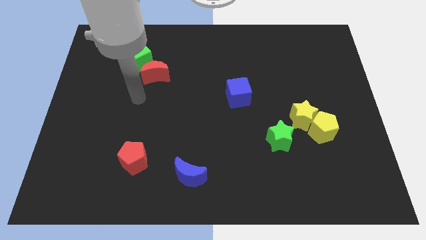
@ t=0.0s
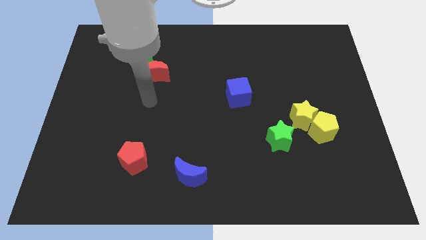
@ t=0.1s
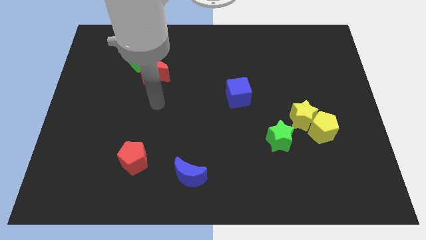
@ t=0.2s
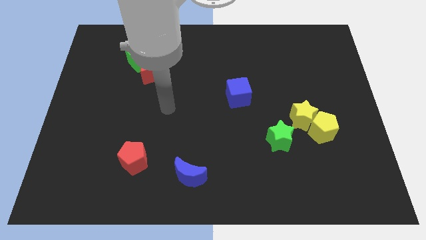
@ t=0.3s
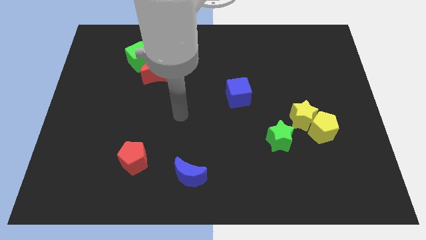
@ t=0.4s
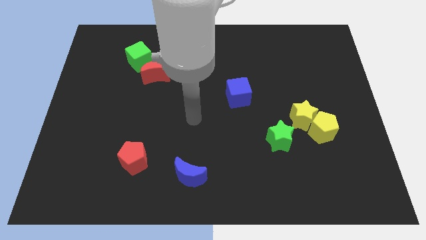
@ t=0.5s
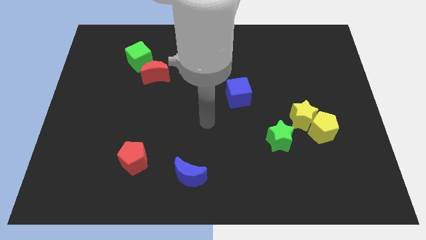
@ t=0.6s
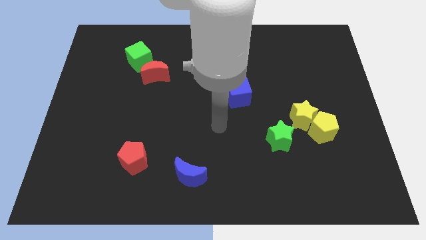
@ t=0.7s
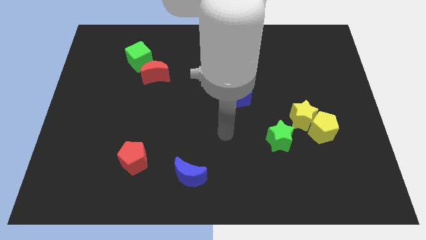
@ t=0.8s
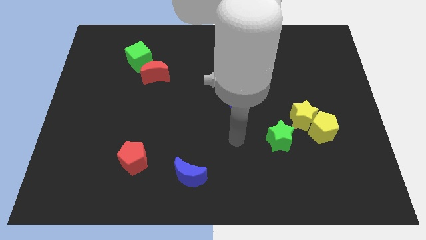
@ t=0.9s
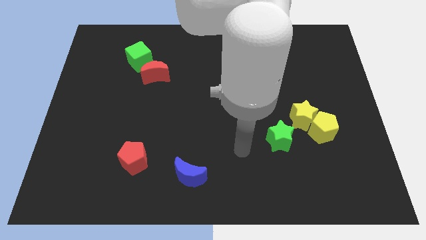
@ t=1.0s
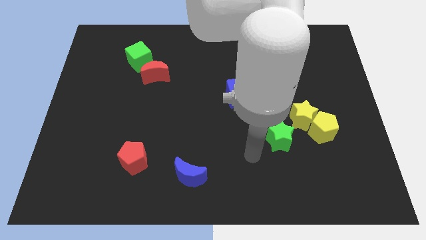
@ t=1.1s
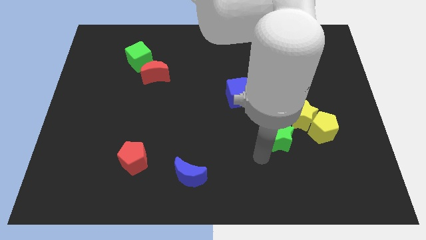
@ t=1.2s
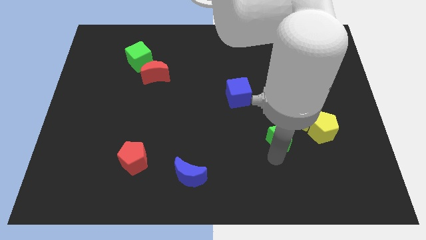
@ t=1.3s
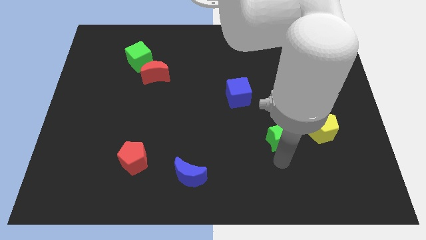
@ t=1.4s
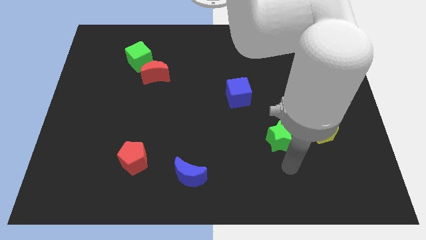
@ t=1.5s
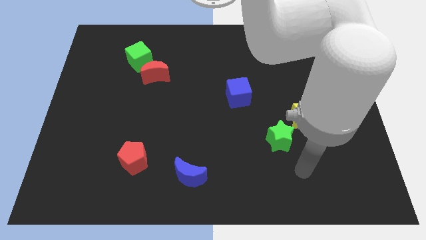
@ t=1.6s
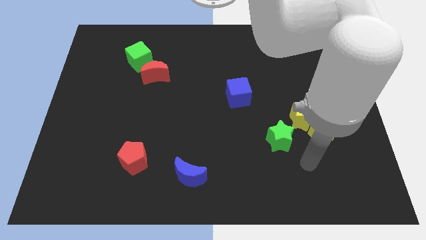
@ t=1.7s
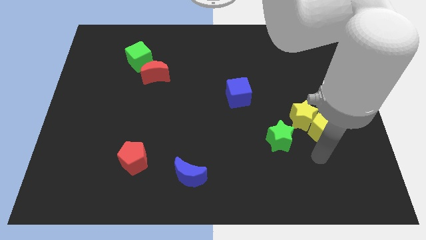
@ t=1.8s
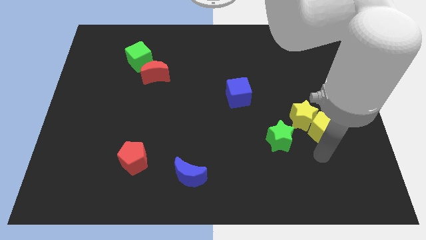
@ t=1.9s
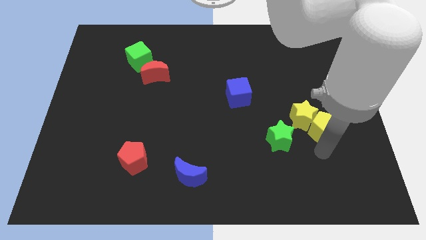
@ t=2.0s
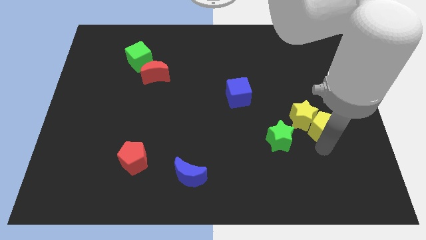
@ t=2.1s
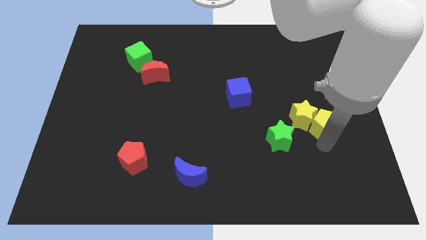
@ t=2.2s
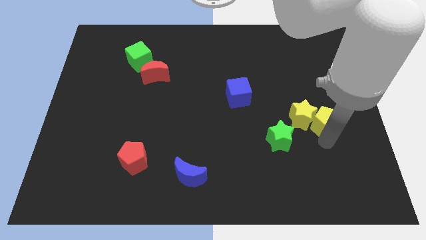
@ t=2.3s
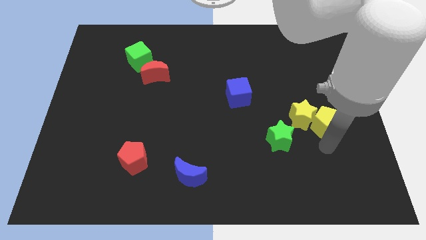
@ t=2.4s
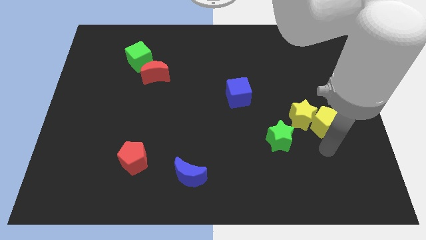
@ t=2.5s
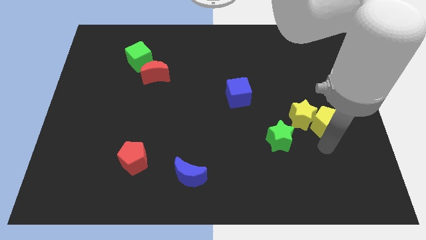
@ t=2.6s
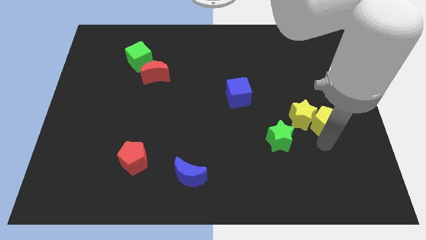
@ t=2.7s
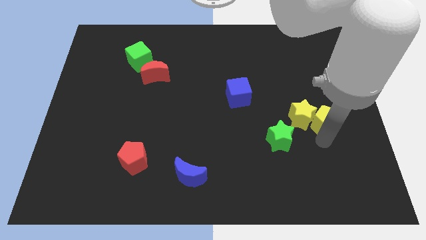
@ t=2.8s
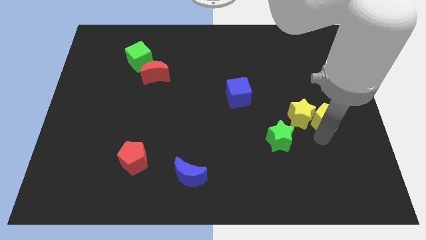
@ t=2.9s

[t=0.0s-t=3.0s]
put the yellow pentagon to the top right of the yellow star

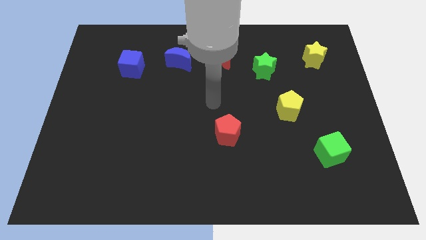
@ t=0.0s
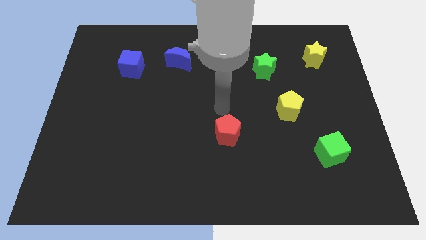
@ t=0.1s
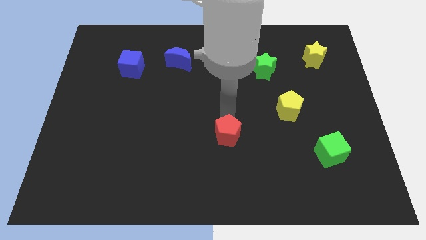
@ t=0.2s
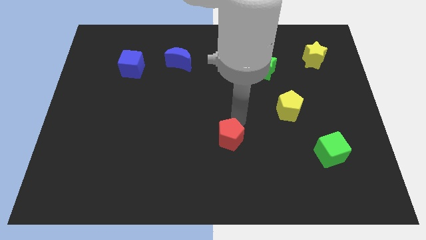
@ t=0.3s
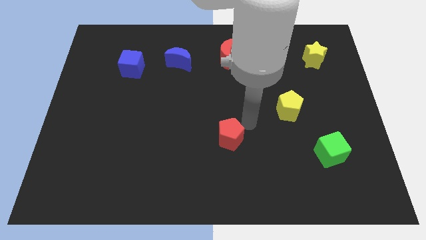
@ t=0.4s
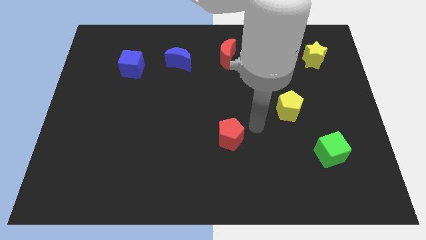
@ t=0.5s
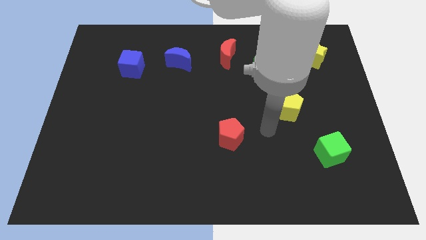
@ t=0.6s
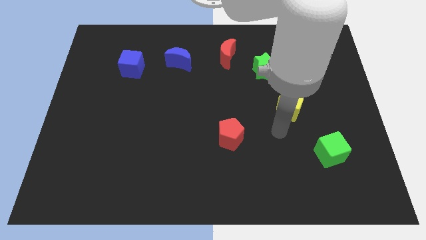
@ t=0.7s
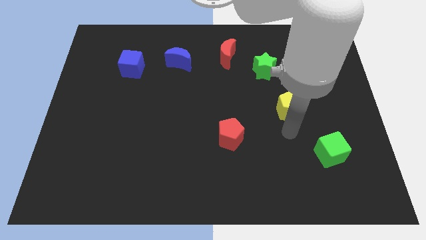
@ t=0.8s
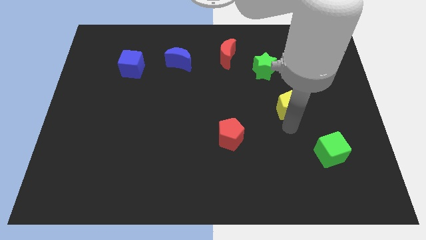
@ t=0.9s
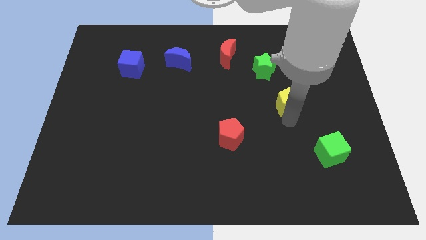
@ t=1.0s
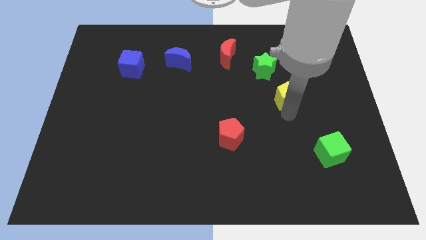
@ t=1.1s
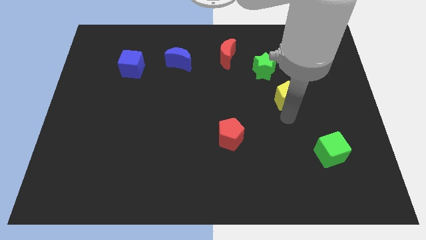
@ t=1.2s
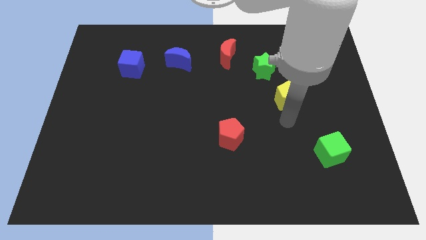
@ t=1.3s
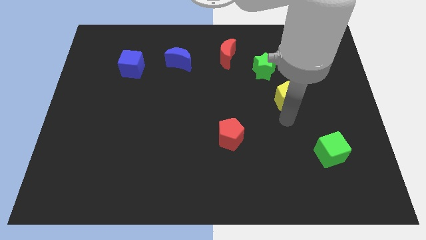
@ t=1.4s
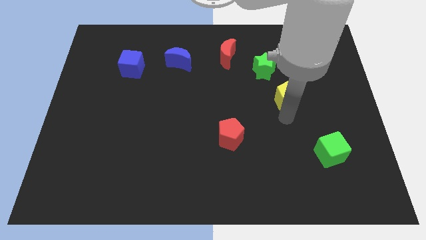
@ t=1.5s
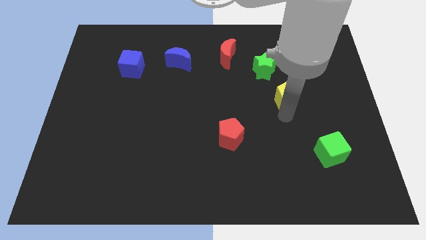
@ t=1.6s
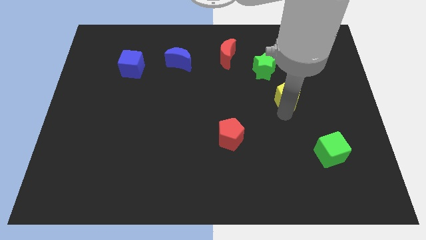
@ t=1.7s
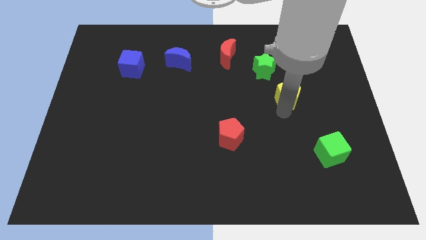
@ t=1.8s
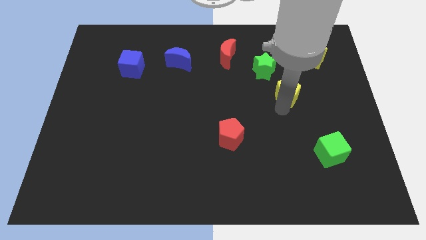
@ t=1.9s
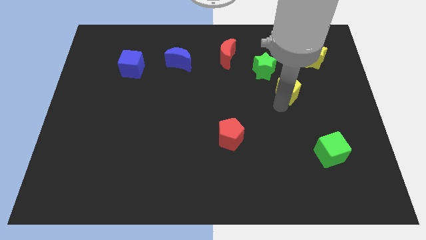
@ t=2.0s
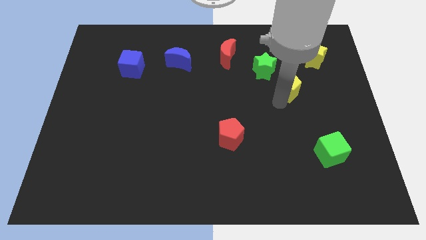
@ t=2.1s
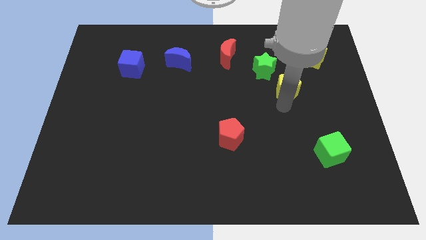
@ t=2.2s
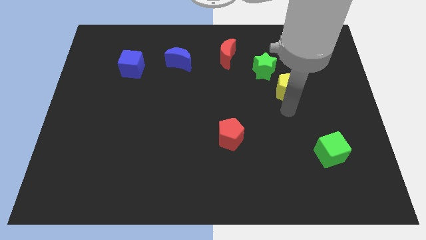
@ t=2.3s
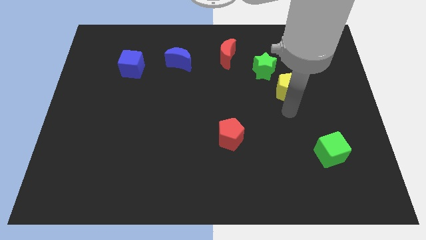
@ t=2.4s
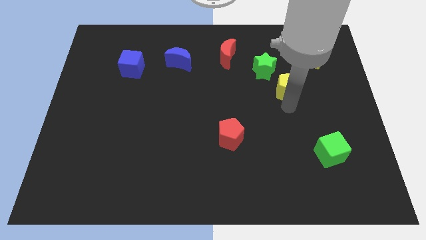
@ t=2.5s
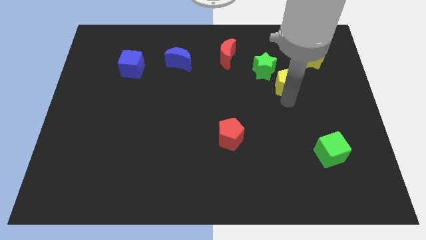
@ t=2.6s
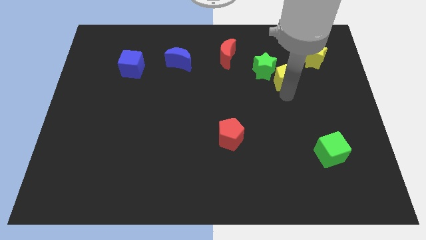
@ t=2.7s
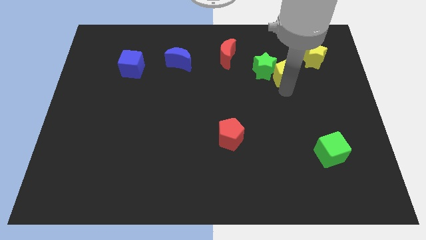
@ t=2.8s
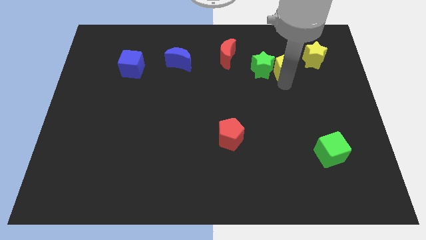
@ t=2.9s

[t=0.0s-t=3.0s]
put the yellow pentagon to the top right side of the green star

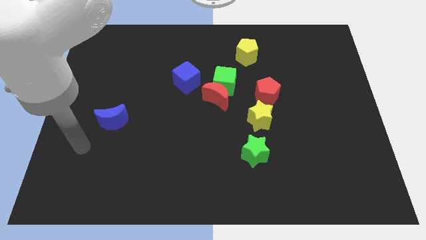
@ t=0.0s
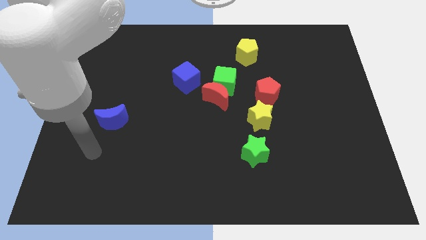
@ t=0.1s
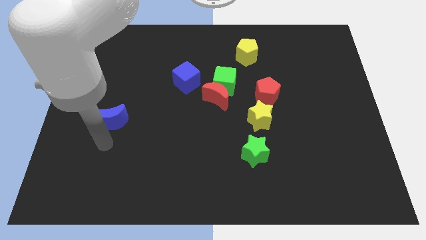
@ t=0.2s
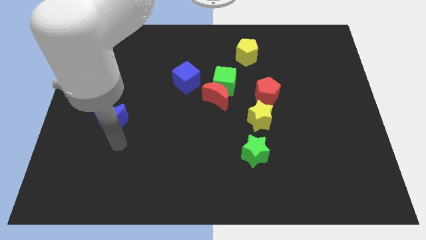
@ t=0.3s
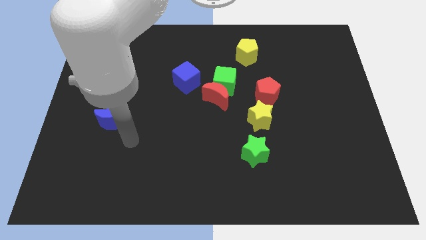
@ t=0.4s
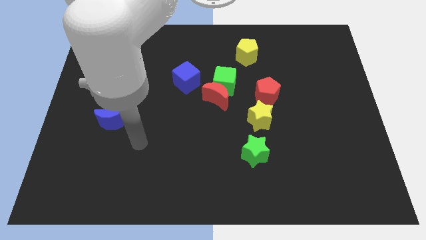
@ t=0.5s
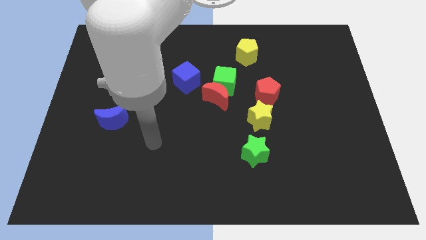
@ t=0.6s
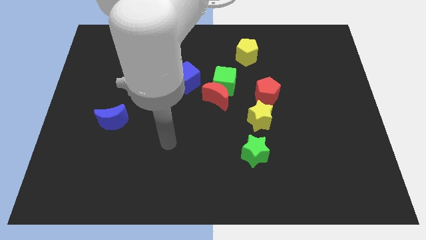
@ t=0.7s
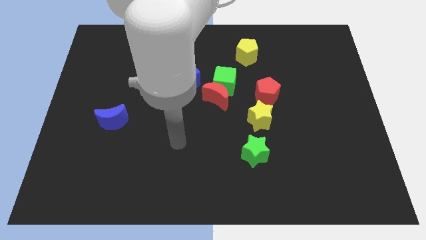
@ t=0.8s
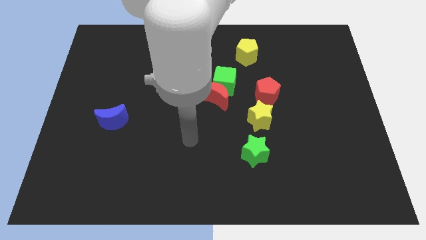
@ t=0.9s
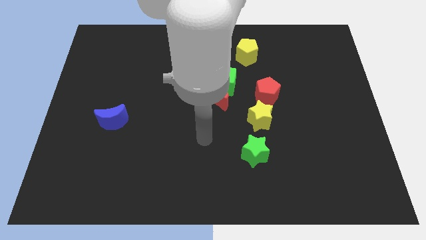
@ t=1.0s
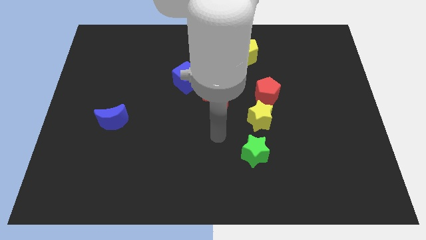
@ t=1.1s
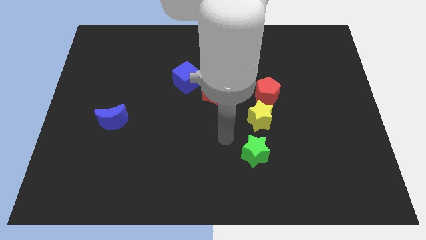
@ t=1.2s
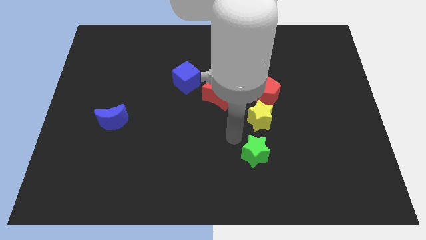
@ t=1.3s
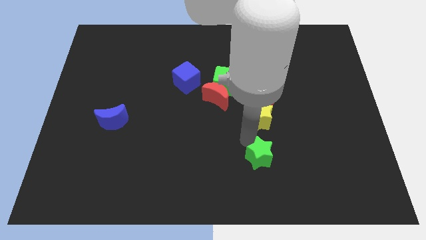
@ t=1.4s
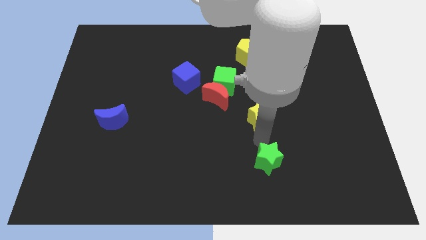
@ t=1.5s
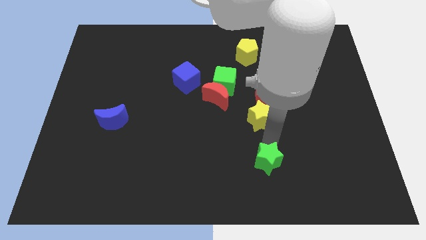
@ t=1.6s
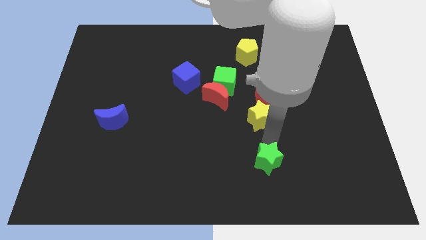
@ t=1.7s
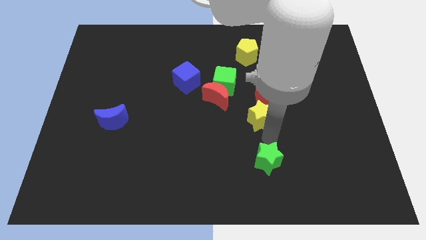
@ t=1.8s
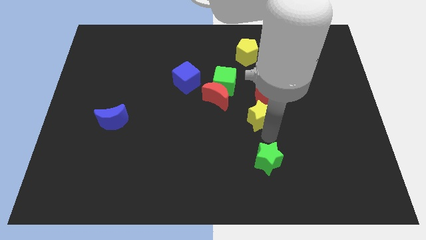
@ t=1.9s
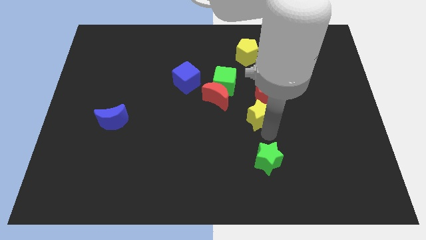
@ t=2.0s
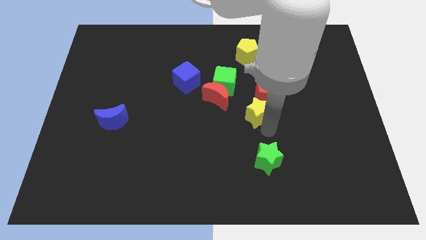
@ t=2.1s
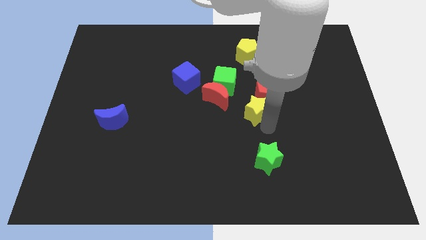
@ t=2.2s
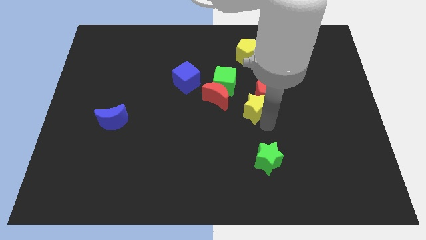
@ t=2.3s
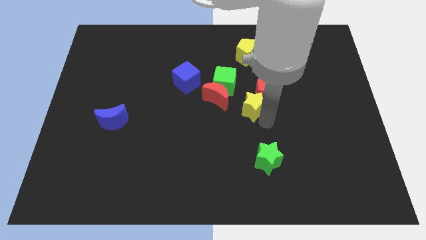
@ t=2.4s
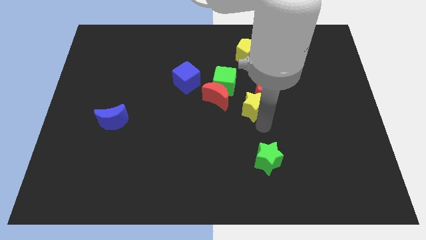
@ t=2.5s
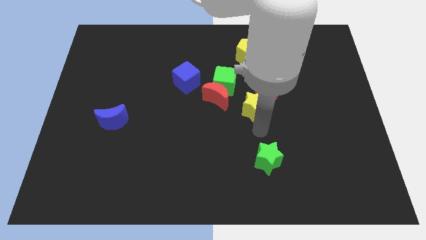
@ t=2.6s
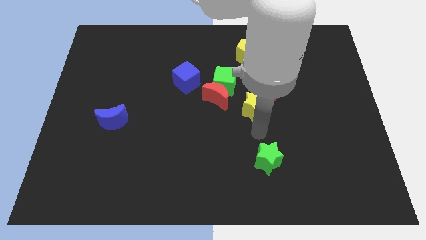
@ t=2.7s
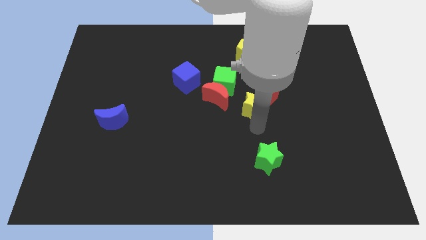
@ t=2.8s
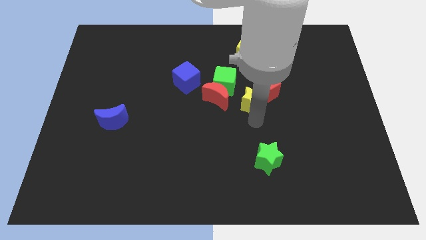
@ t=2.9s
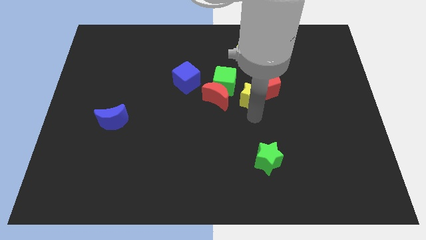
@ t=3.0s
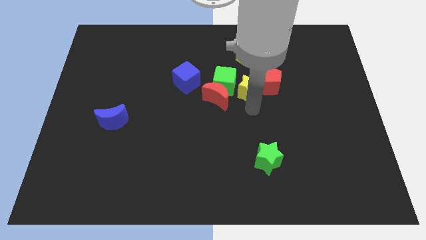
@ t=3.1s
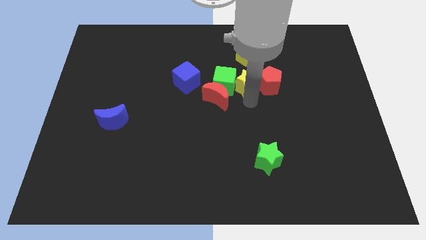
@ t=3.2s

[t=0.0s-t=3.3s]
slide the yellow star to the top right side of the green cube
